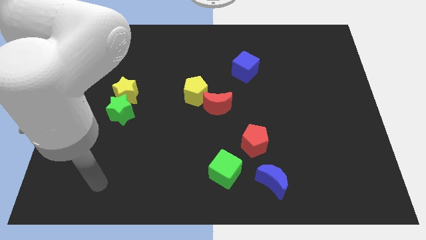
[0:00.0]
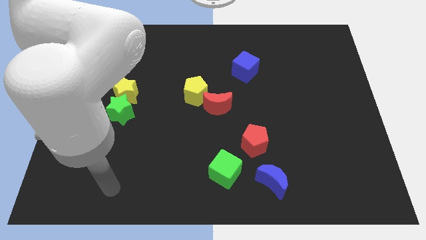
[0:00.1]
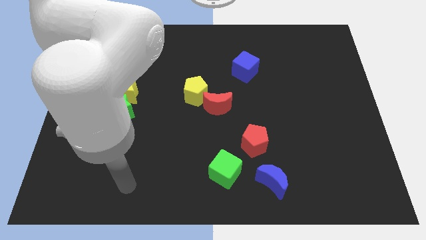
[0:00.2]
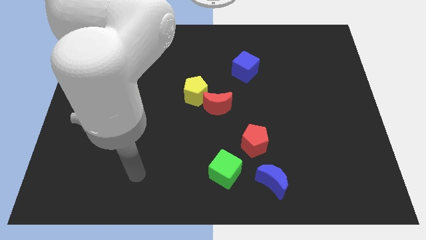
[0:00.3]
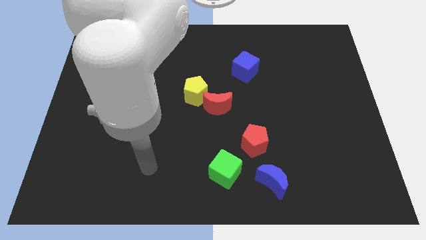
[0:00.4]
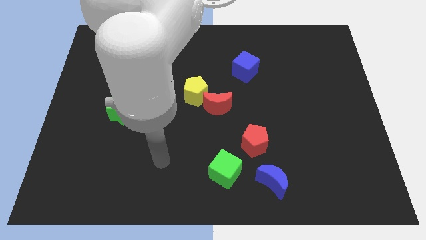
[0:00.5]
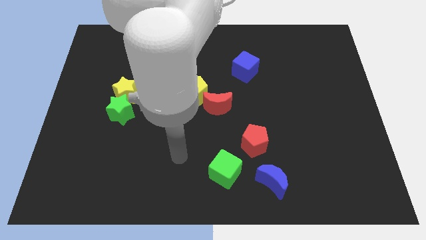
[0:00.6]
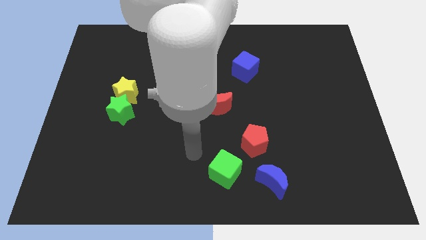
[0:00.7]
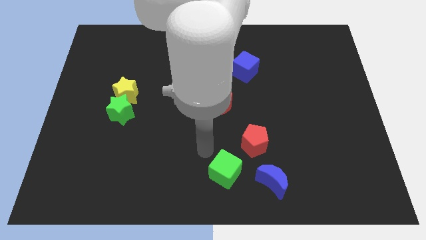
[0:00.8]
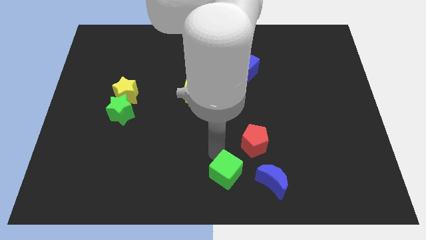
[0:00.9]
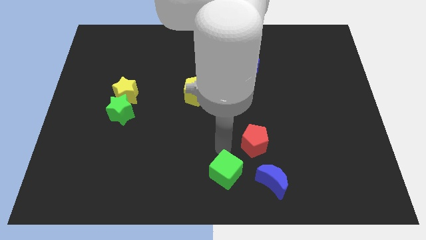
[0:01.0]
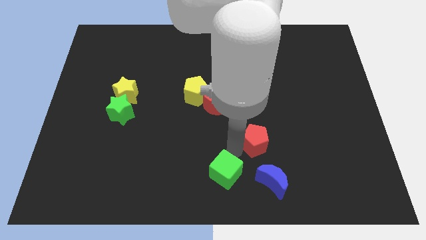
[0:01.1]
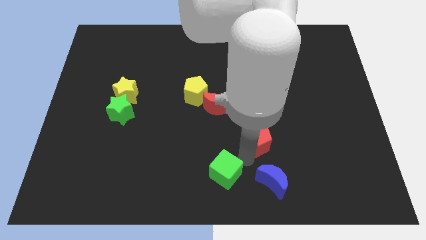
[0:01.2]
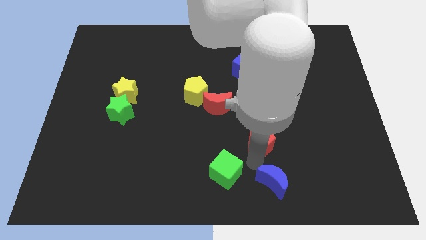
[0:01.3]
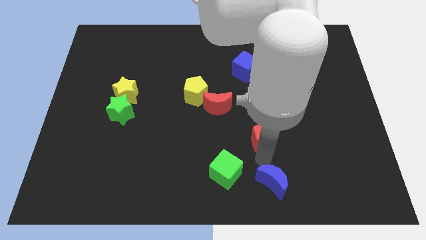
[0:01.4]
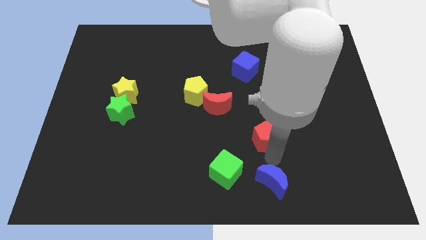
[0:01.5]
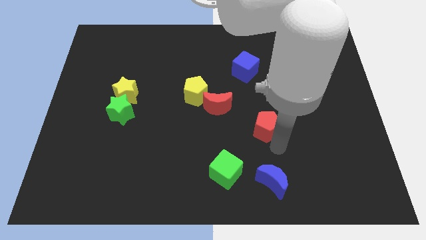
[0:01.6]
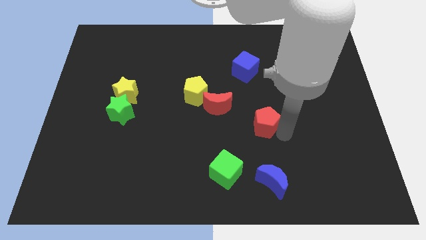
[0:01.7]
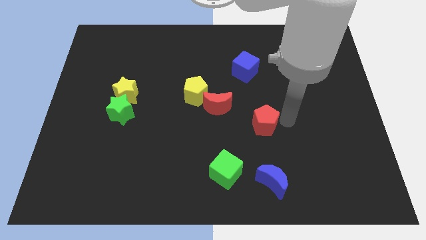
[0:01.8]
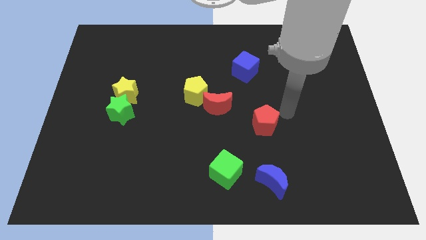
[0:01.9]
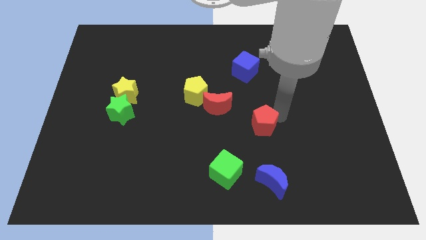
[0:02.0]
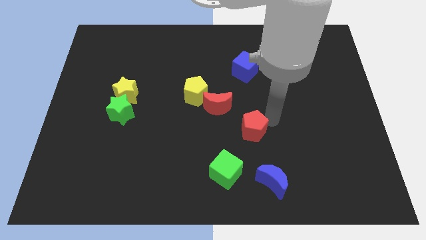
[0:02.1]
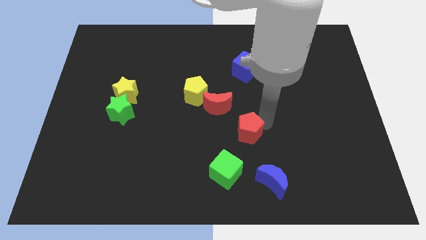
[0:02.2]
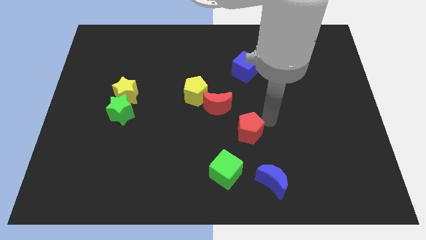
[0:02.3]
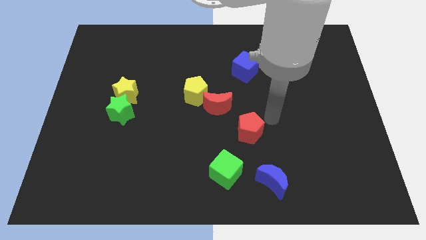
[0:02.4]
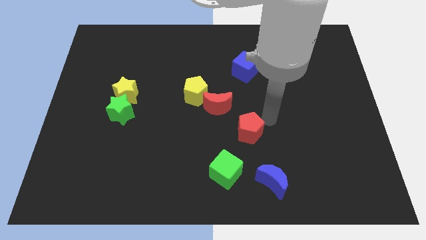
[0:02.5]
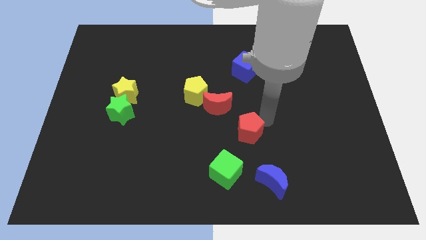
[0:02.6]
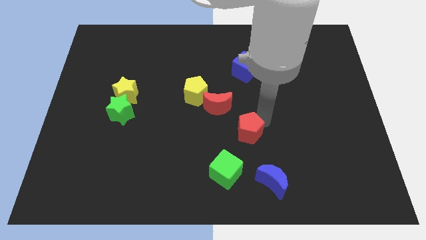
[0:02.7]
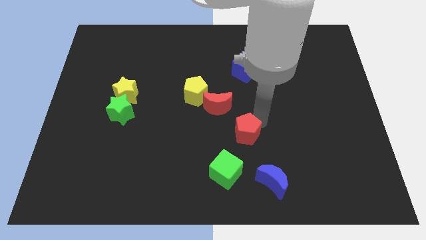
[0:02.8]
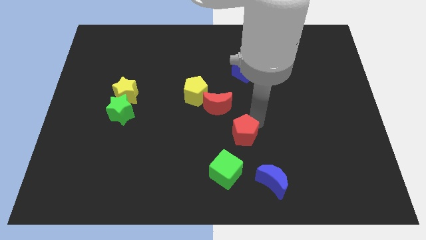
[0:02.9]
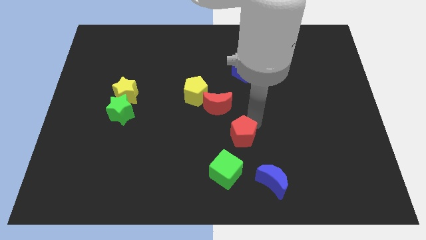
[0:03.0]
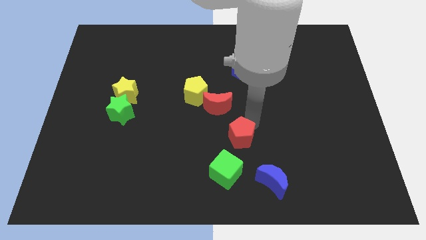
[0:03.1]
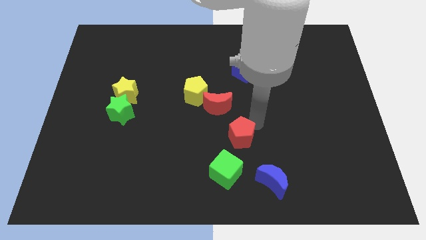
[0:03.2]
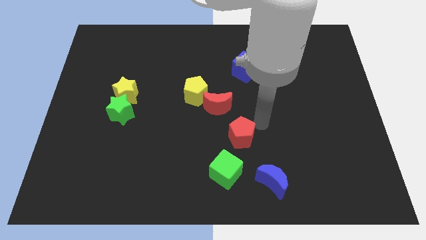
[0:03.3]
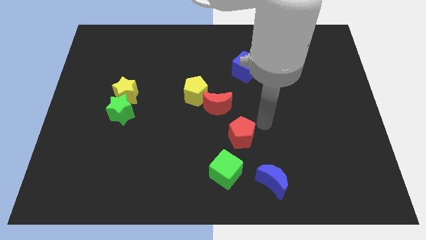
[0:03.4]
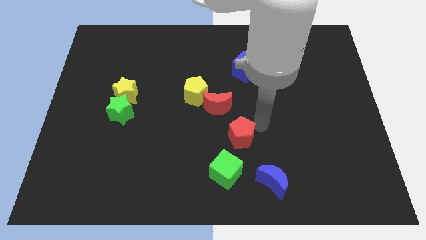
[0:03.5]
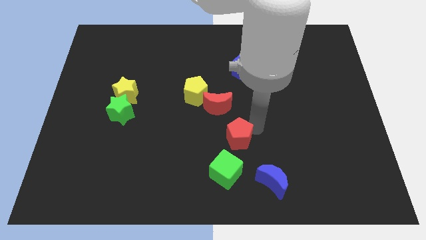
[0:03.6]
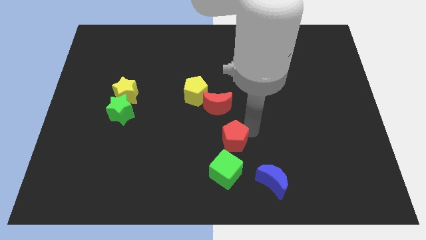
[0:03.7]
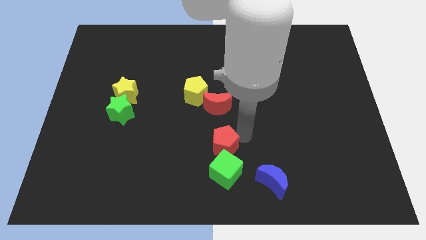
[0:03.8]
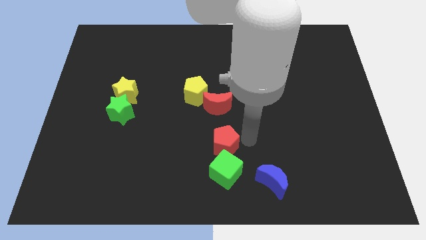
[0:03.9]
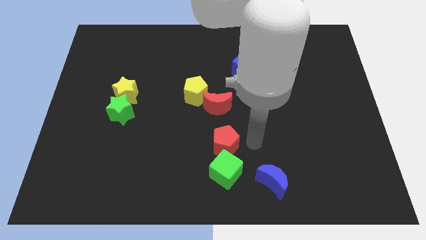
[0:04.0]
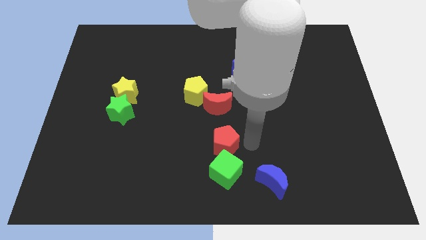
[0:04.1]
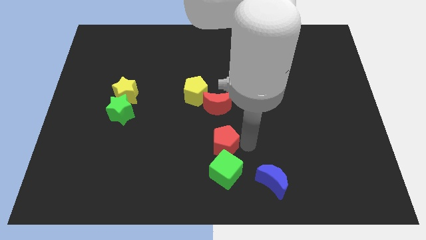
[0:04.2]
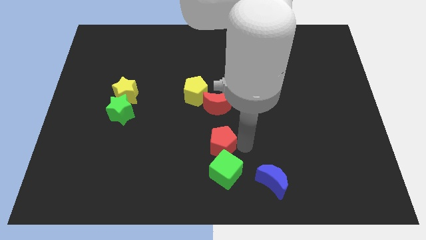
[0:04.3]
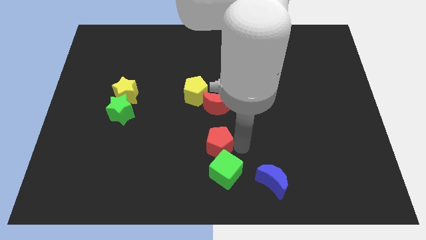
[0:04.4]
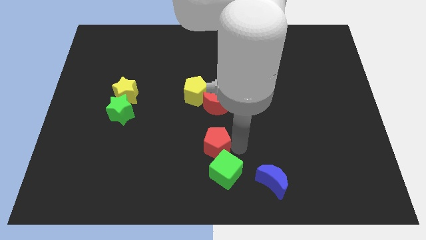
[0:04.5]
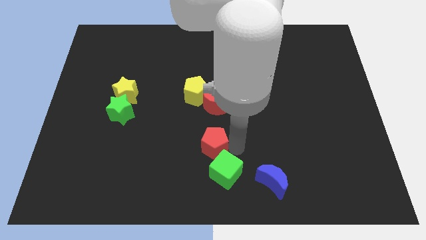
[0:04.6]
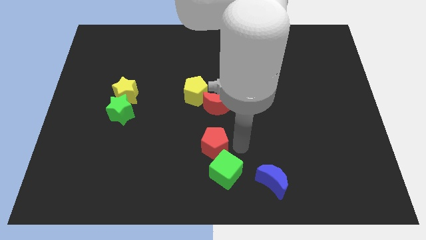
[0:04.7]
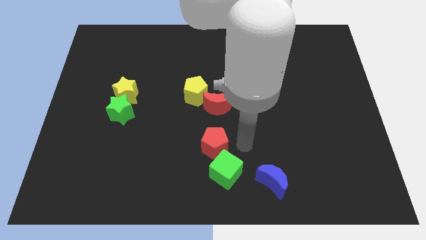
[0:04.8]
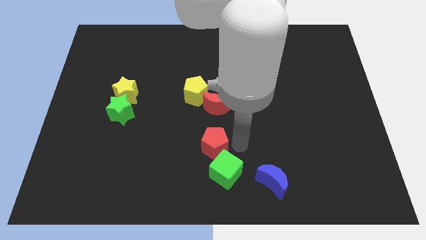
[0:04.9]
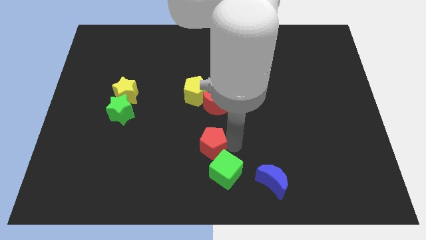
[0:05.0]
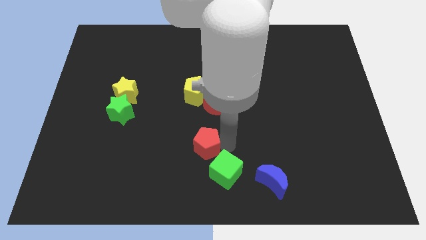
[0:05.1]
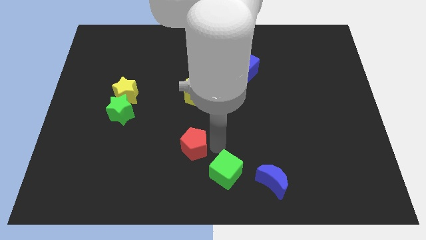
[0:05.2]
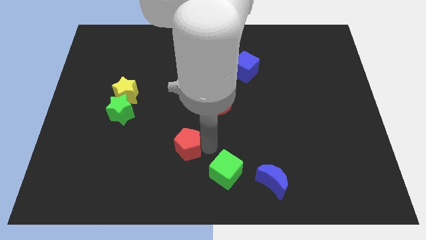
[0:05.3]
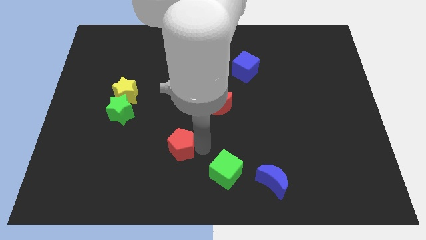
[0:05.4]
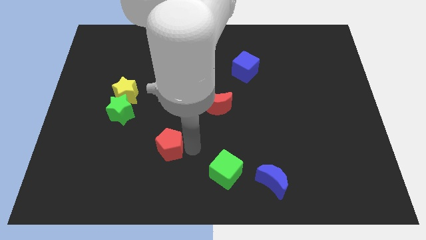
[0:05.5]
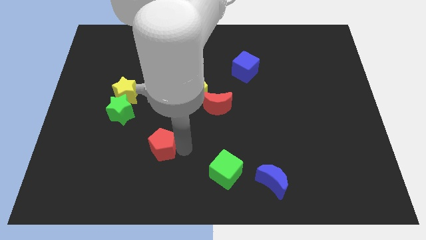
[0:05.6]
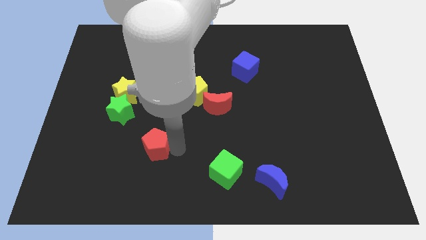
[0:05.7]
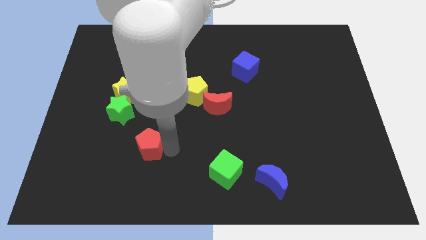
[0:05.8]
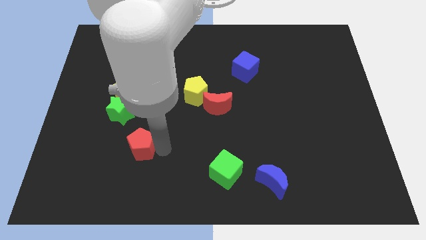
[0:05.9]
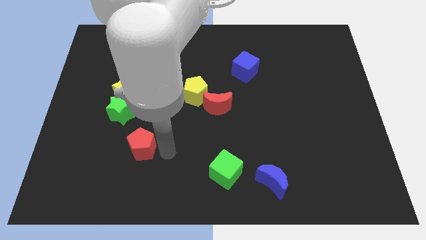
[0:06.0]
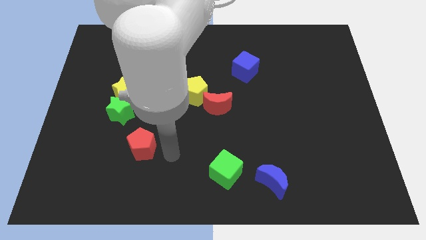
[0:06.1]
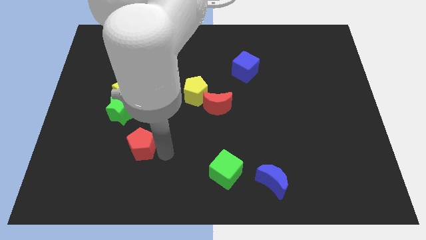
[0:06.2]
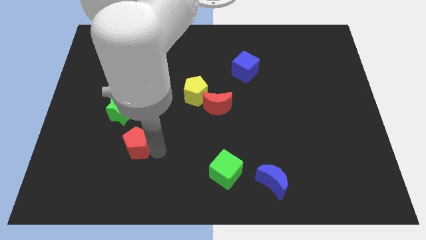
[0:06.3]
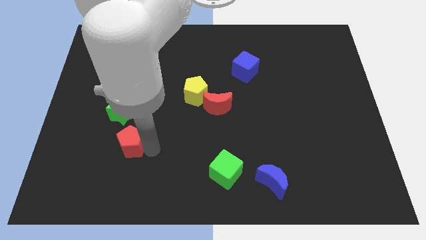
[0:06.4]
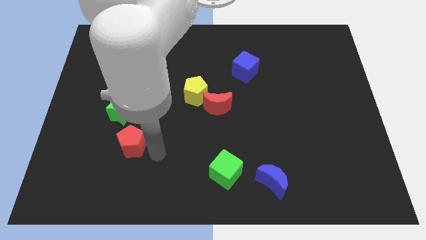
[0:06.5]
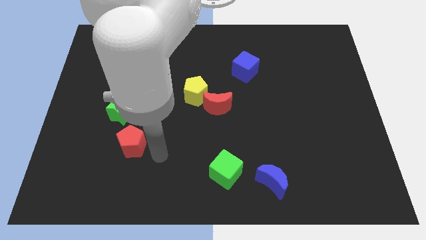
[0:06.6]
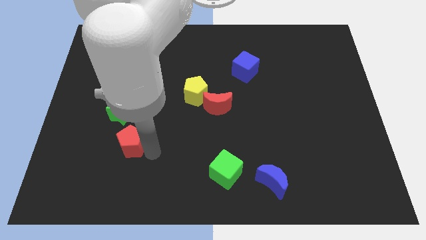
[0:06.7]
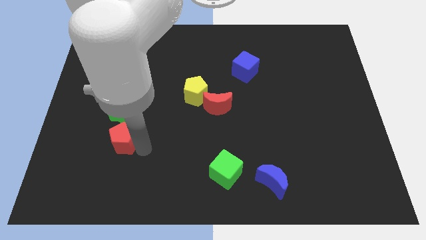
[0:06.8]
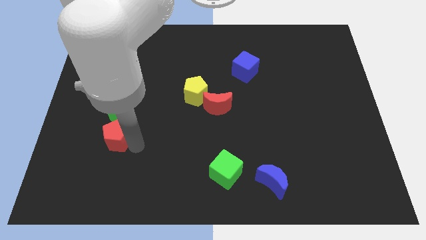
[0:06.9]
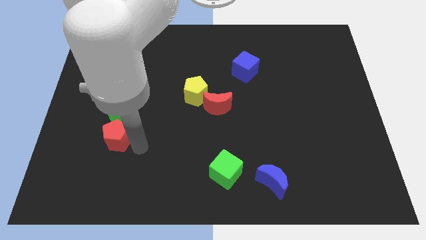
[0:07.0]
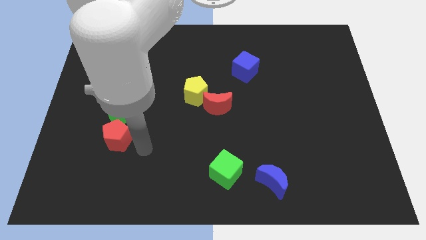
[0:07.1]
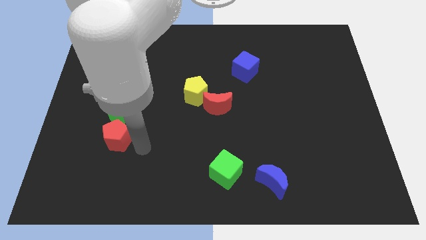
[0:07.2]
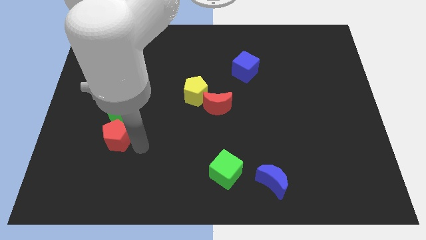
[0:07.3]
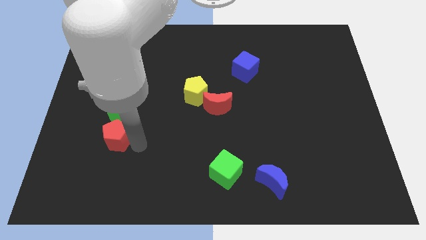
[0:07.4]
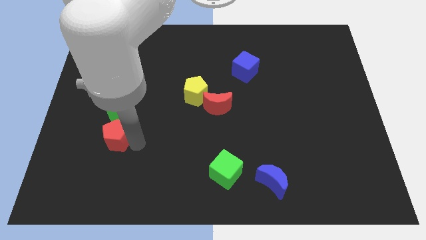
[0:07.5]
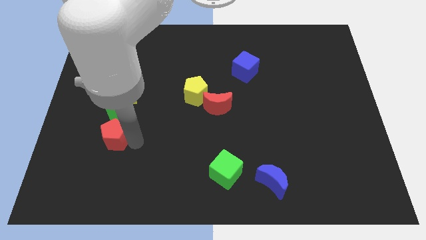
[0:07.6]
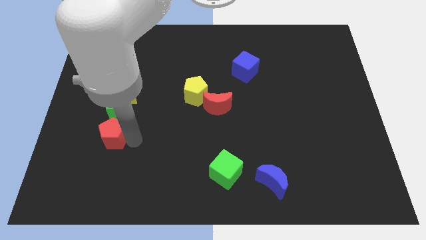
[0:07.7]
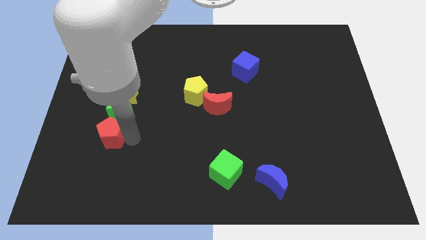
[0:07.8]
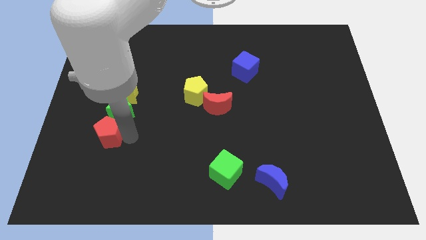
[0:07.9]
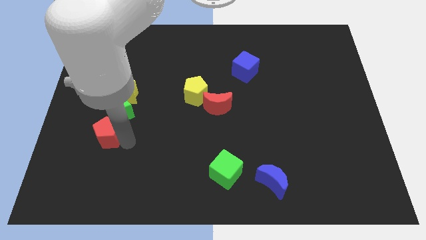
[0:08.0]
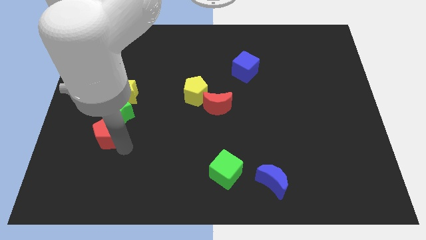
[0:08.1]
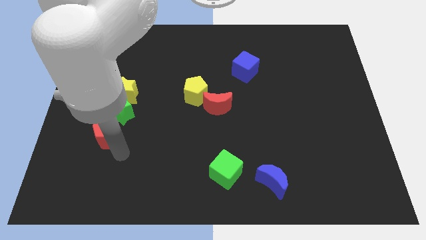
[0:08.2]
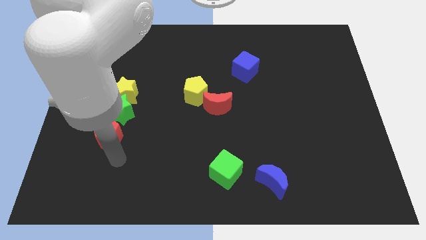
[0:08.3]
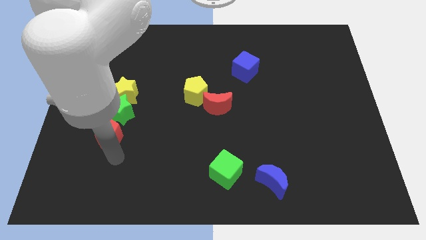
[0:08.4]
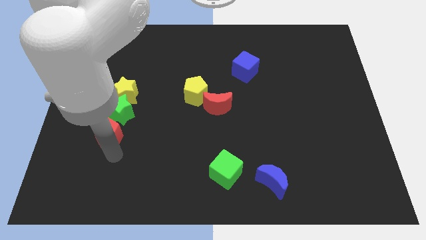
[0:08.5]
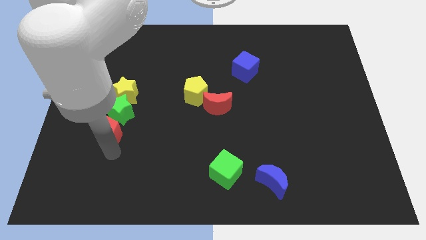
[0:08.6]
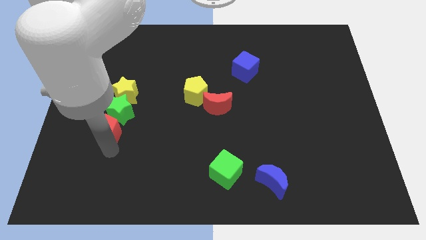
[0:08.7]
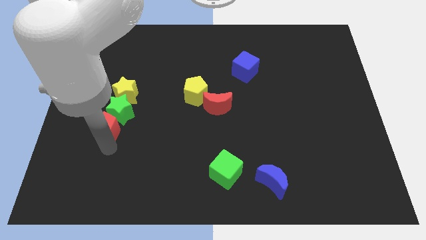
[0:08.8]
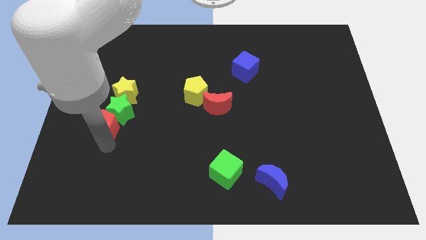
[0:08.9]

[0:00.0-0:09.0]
push the red pentagon diagonally down and to the left of the yellow star
